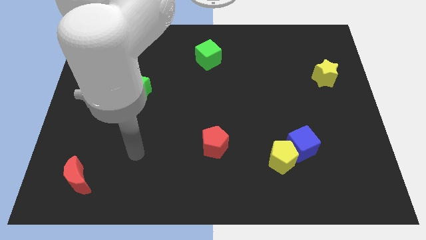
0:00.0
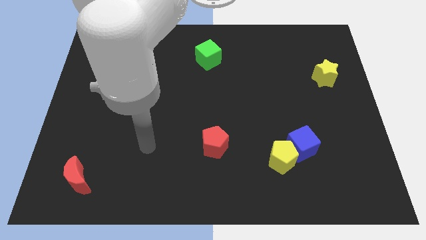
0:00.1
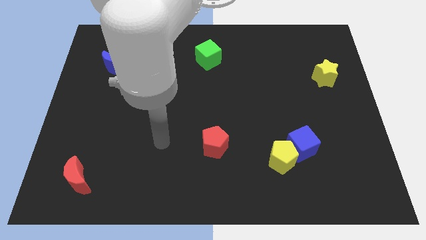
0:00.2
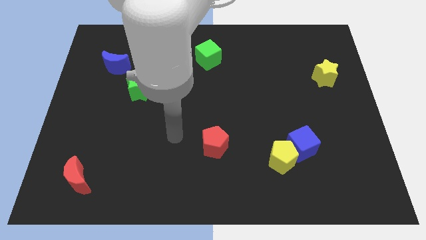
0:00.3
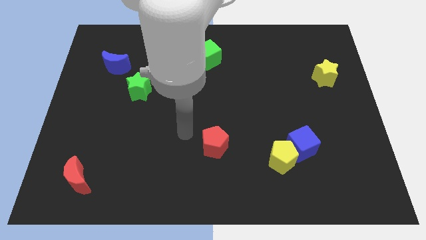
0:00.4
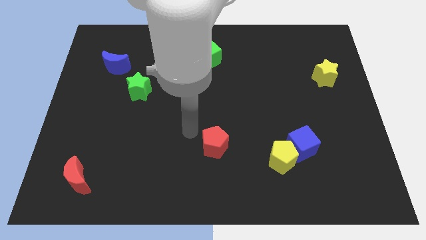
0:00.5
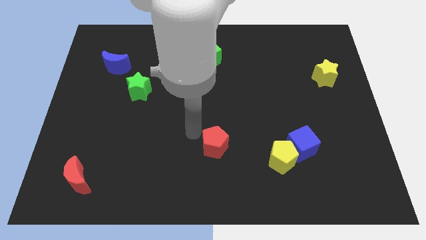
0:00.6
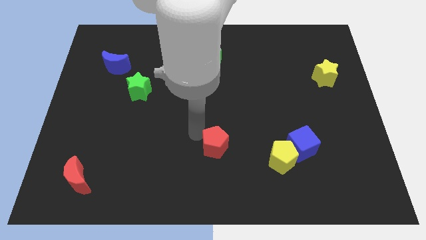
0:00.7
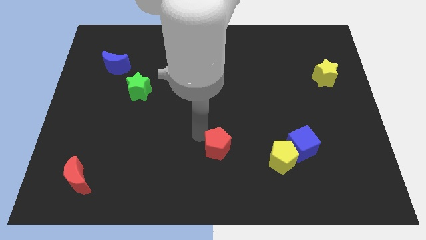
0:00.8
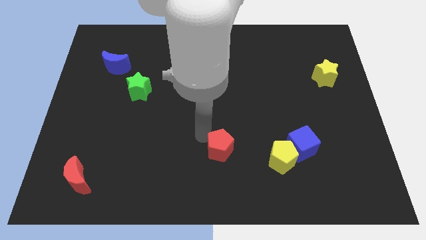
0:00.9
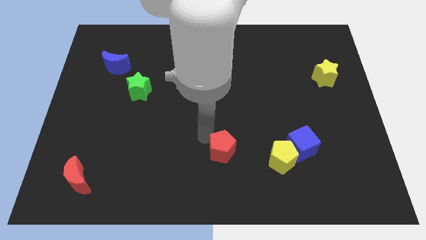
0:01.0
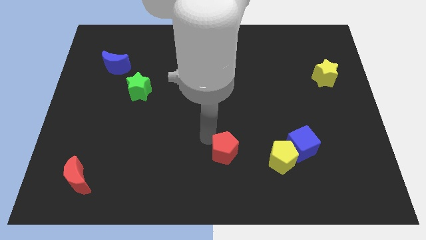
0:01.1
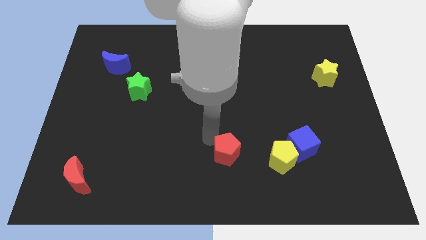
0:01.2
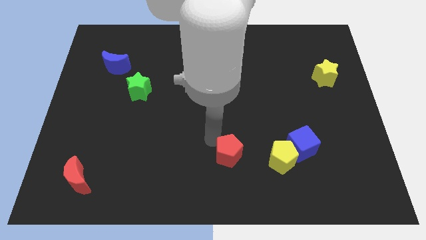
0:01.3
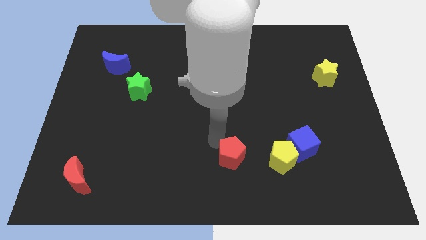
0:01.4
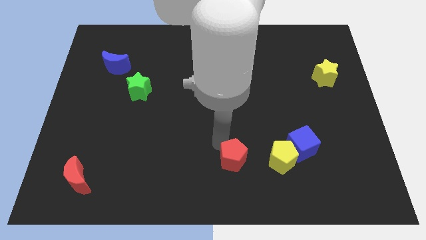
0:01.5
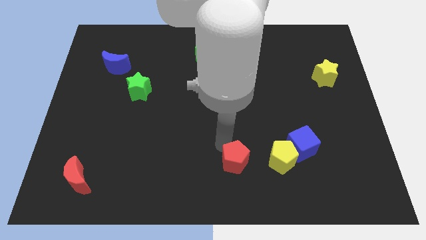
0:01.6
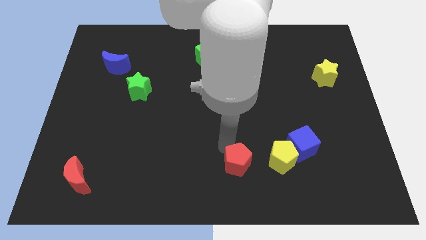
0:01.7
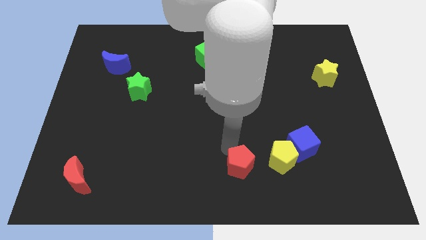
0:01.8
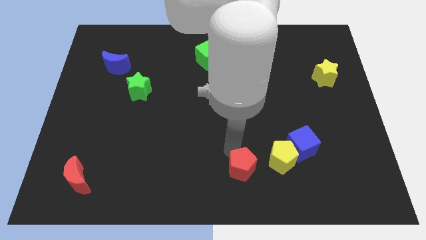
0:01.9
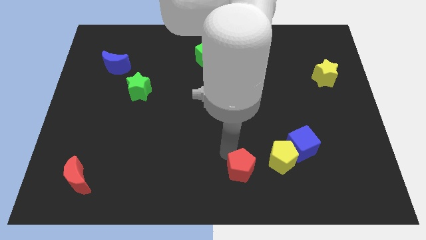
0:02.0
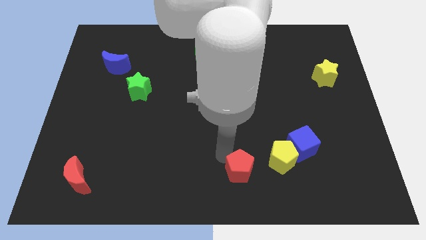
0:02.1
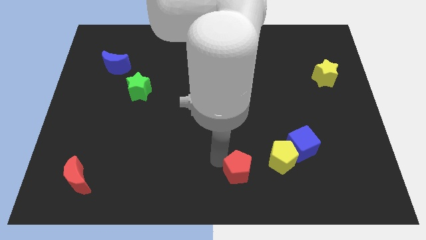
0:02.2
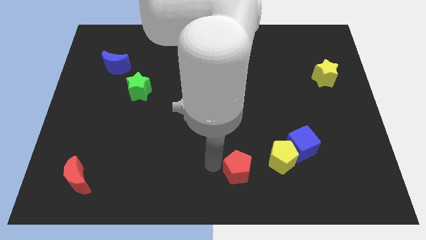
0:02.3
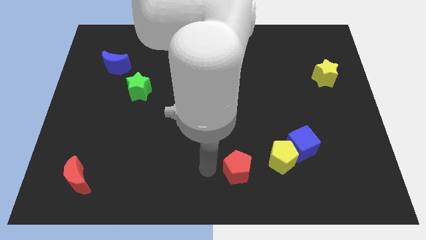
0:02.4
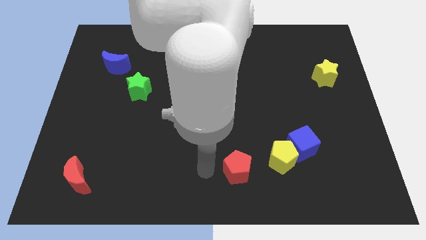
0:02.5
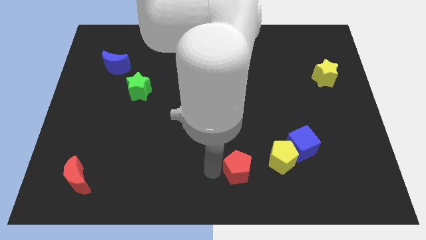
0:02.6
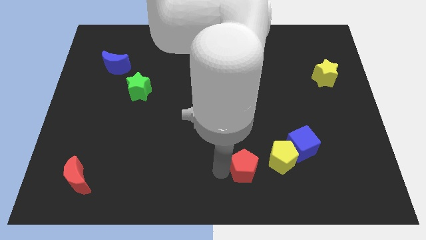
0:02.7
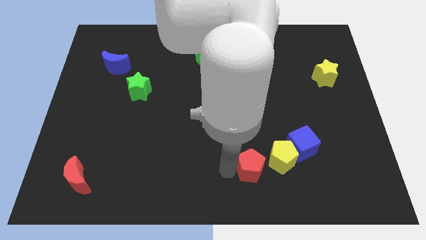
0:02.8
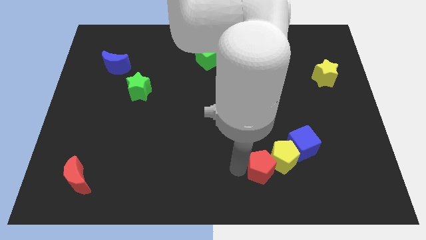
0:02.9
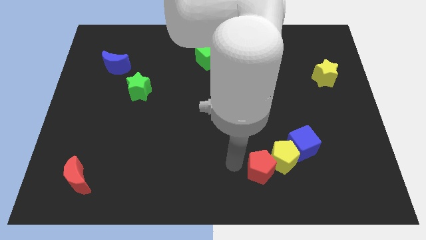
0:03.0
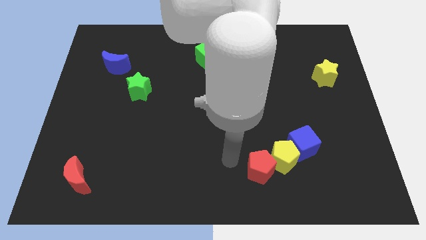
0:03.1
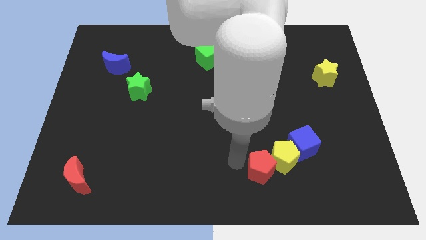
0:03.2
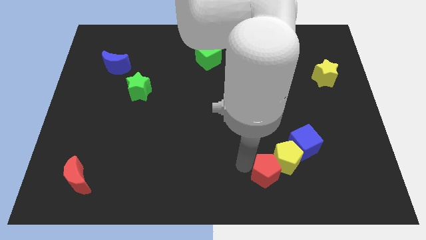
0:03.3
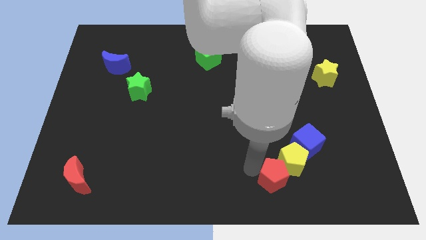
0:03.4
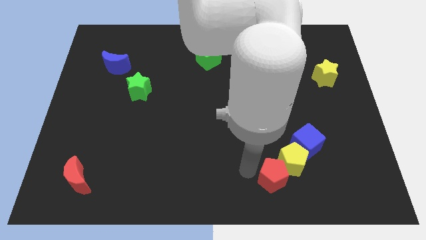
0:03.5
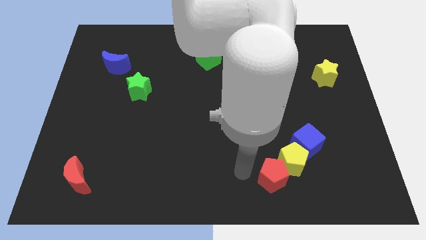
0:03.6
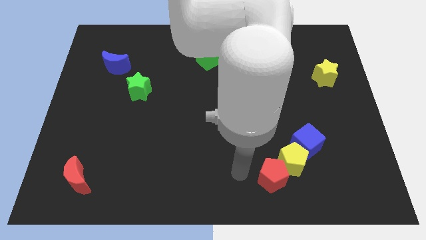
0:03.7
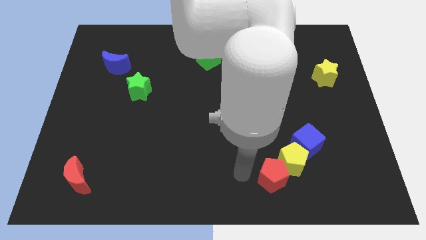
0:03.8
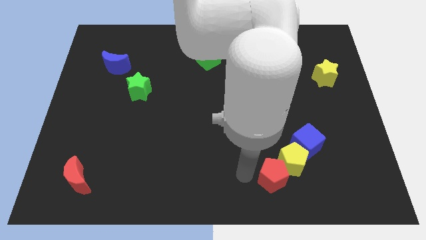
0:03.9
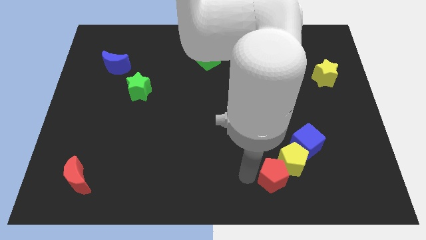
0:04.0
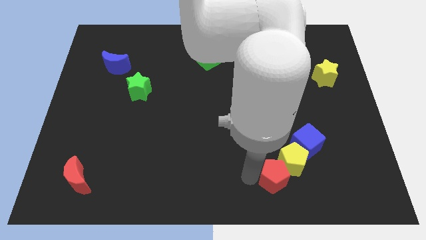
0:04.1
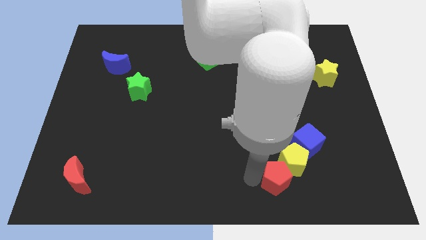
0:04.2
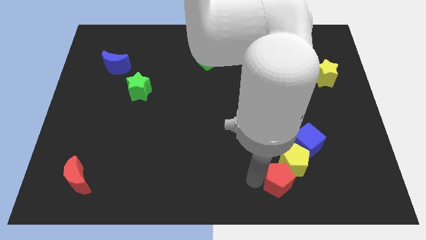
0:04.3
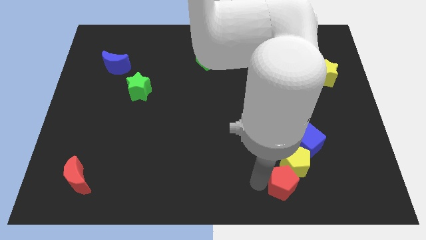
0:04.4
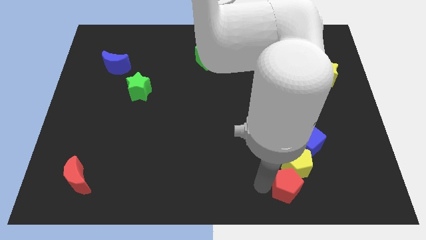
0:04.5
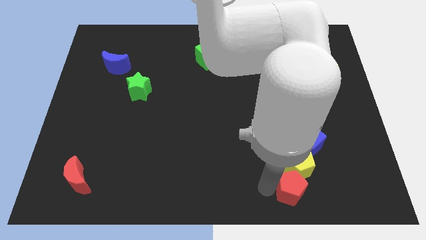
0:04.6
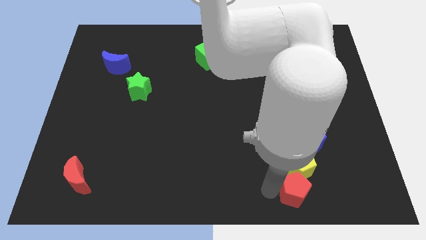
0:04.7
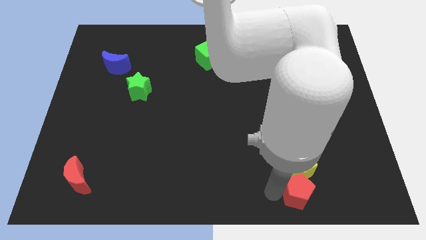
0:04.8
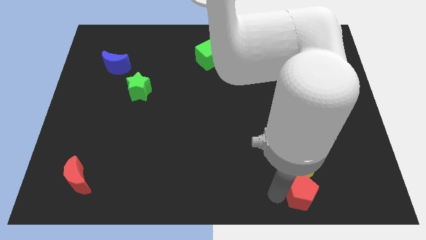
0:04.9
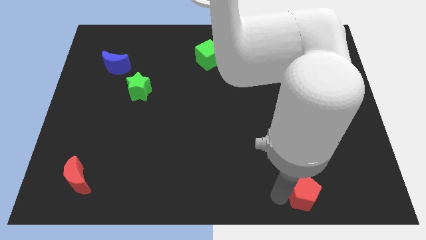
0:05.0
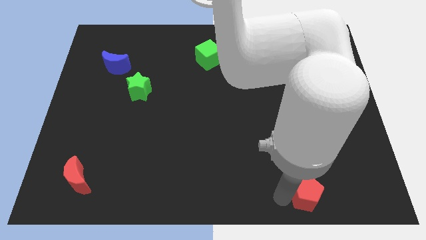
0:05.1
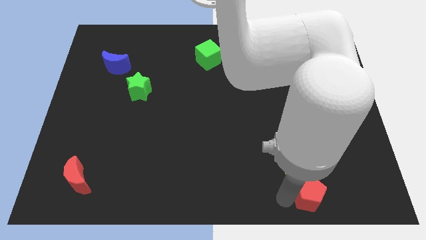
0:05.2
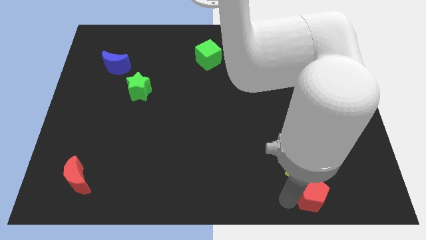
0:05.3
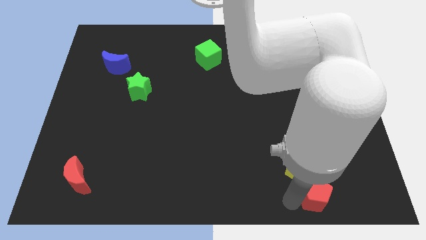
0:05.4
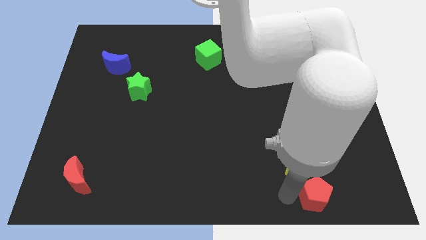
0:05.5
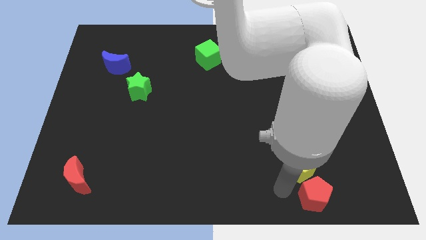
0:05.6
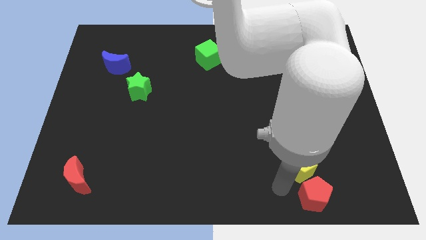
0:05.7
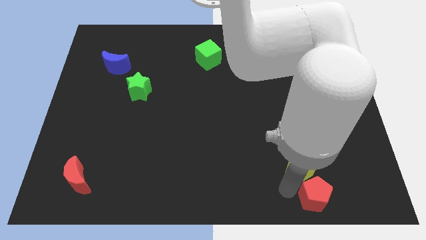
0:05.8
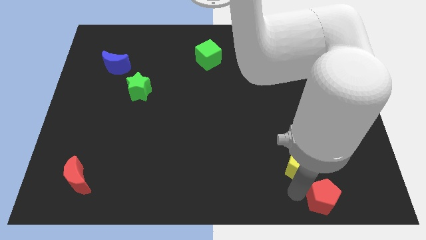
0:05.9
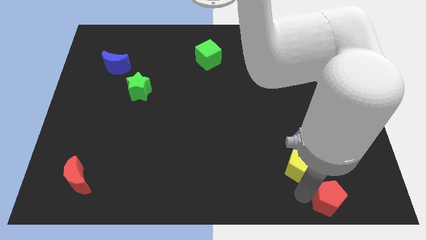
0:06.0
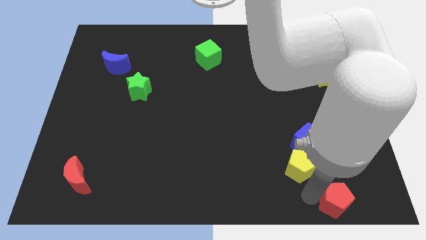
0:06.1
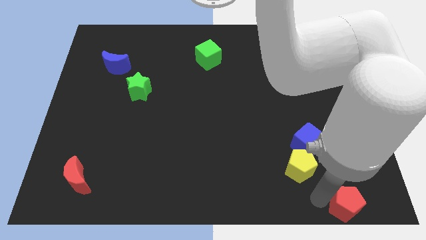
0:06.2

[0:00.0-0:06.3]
move the red pentagon to the bottom right
